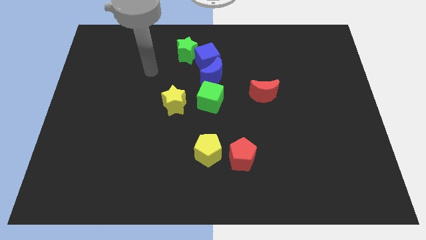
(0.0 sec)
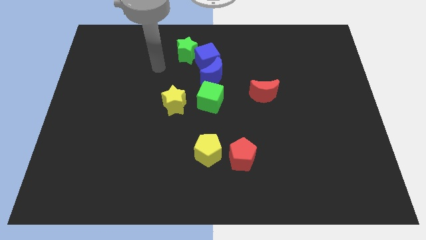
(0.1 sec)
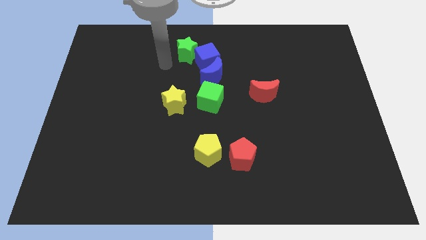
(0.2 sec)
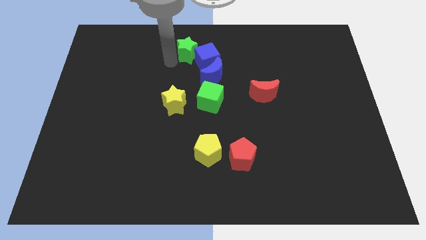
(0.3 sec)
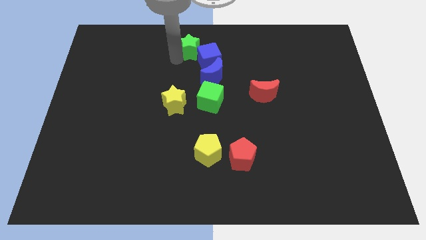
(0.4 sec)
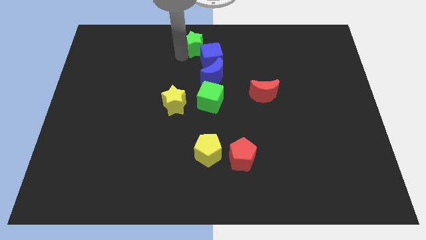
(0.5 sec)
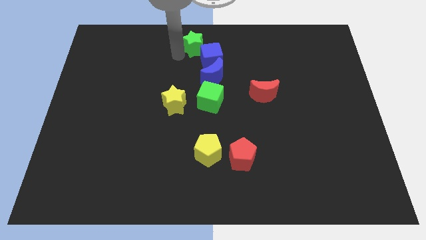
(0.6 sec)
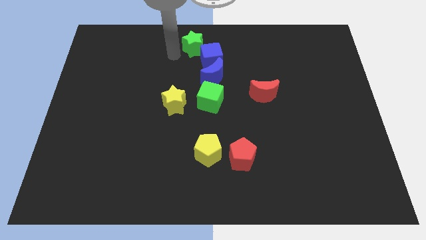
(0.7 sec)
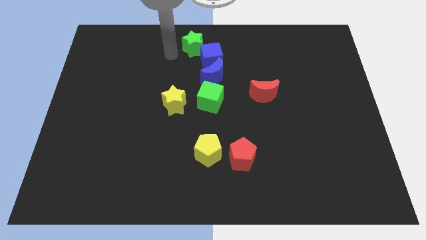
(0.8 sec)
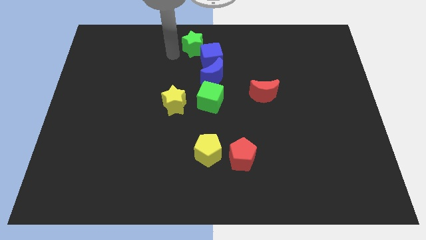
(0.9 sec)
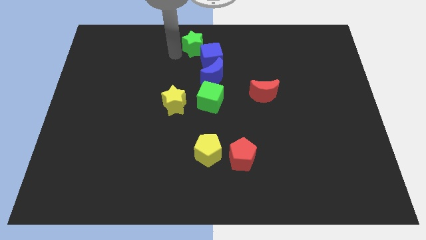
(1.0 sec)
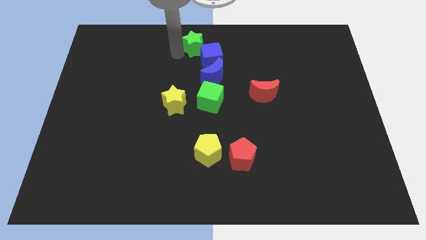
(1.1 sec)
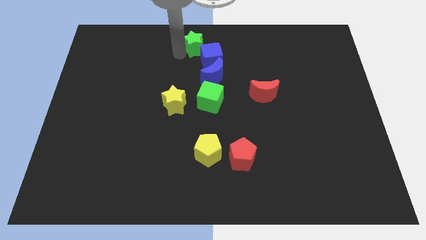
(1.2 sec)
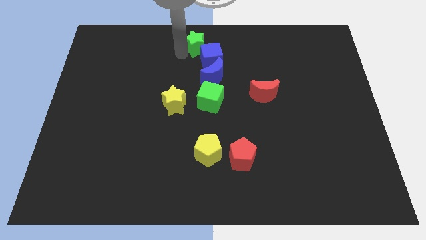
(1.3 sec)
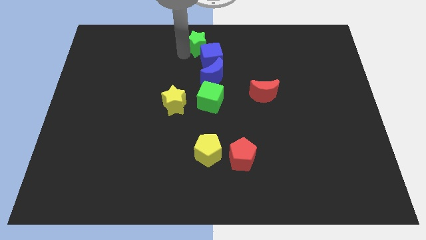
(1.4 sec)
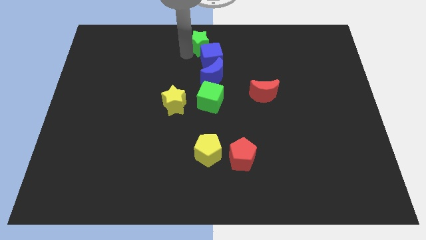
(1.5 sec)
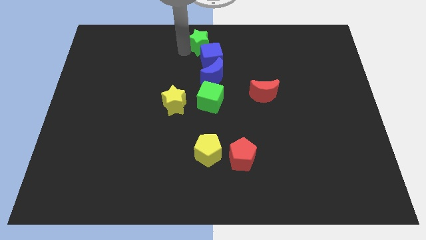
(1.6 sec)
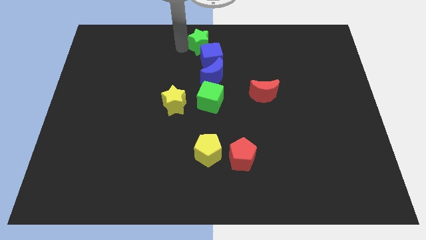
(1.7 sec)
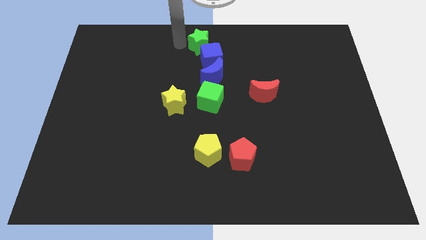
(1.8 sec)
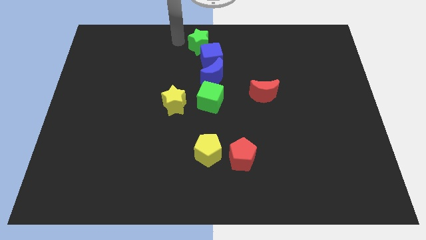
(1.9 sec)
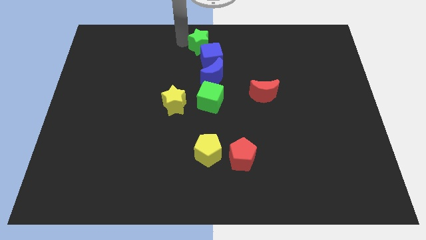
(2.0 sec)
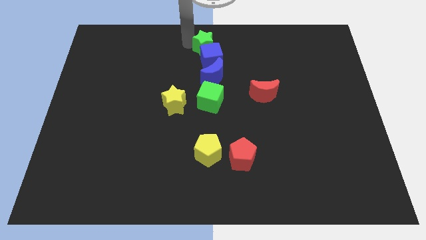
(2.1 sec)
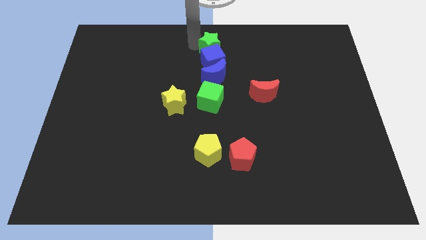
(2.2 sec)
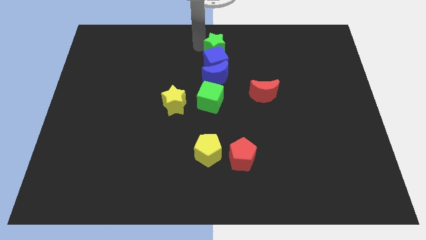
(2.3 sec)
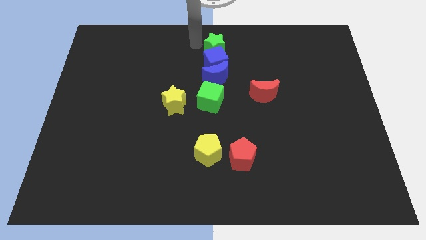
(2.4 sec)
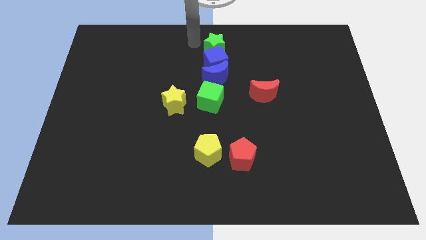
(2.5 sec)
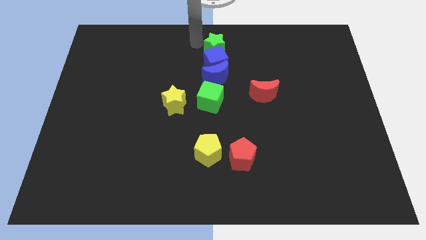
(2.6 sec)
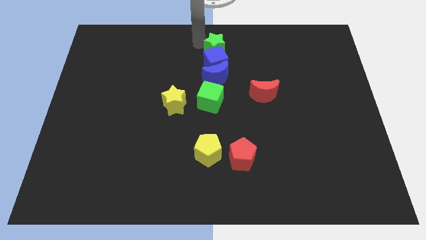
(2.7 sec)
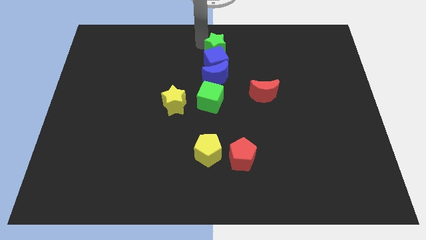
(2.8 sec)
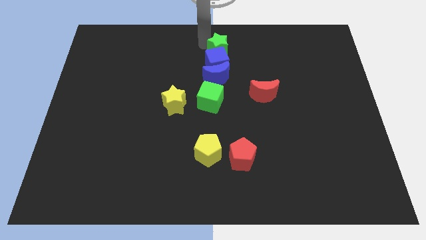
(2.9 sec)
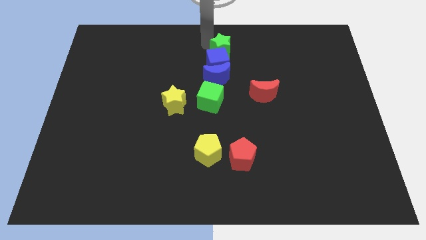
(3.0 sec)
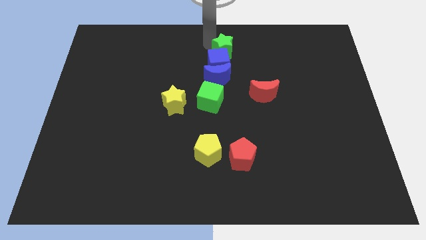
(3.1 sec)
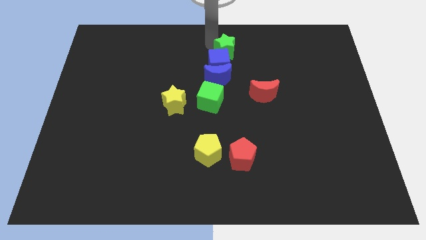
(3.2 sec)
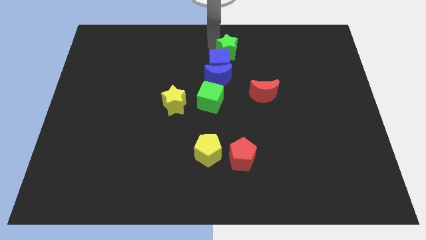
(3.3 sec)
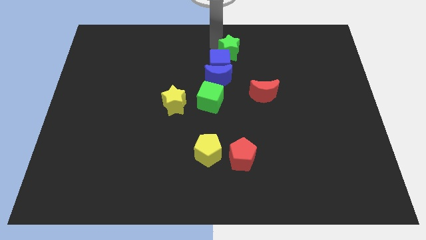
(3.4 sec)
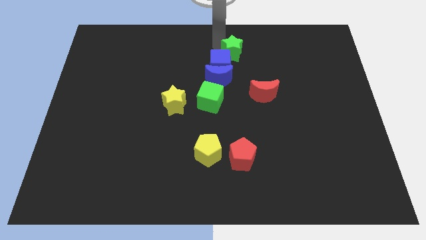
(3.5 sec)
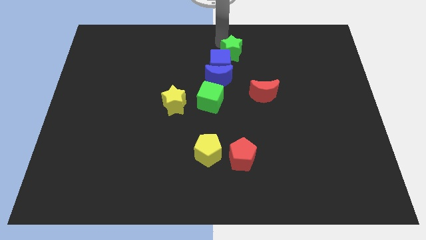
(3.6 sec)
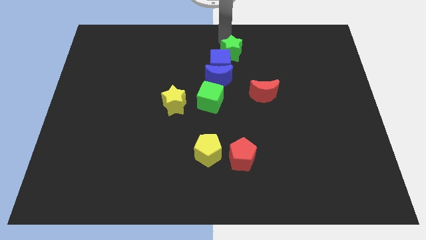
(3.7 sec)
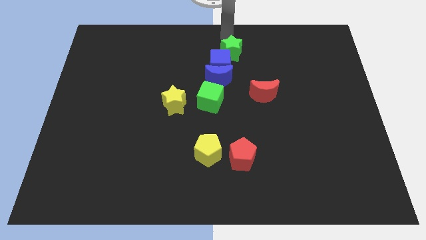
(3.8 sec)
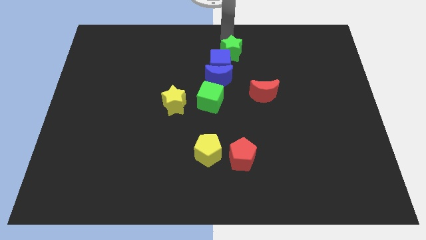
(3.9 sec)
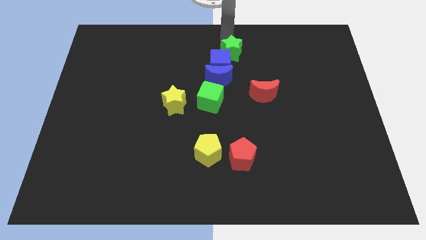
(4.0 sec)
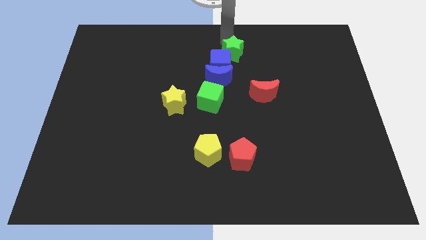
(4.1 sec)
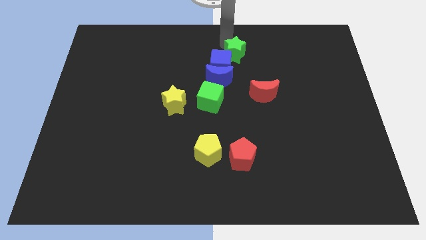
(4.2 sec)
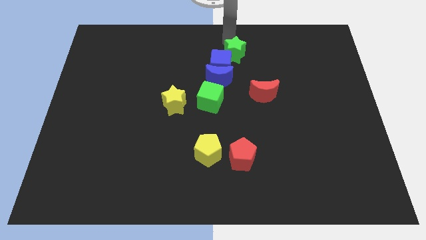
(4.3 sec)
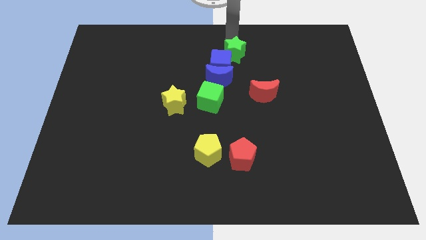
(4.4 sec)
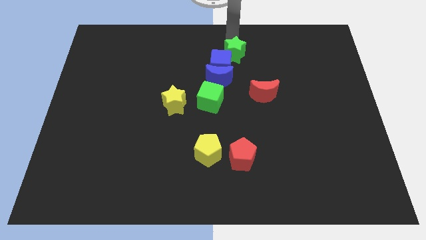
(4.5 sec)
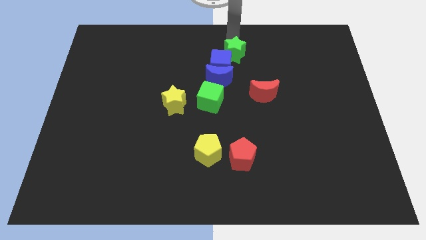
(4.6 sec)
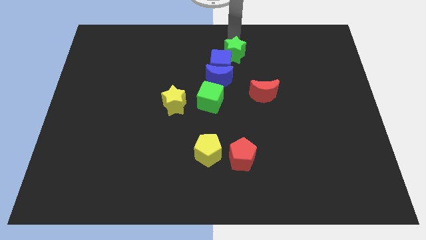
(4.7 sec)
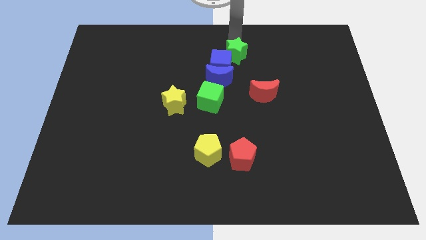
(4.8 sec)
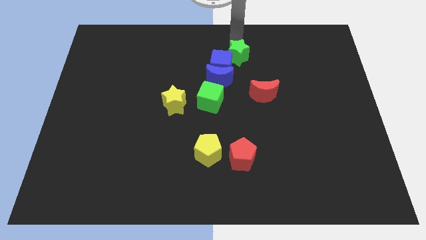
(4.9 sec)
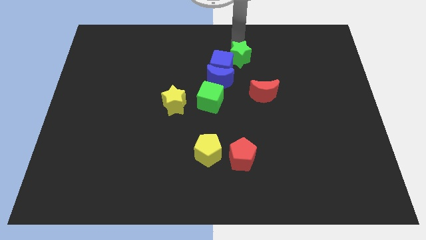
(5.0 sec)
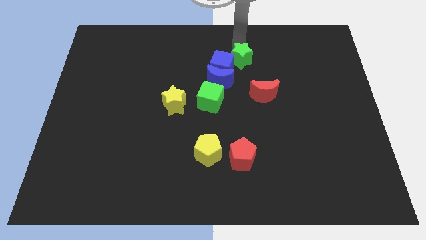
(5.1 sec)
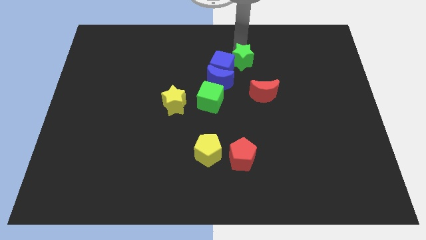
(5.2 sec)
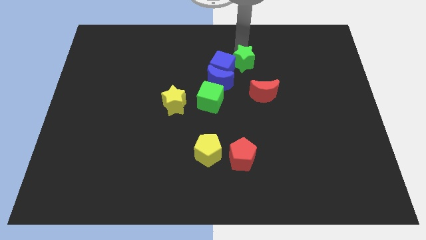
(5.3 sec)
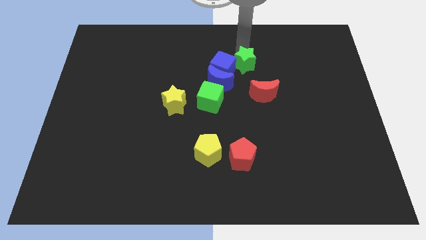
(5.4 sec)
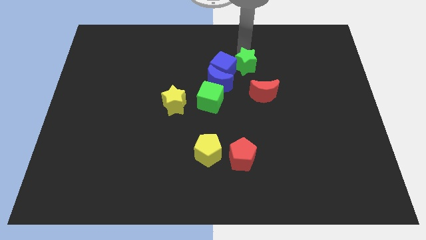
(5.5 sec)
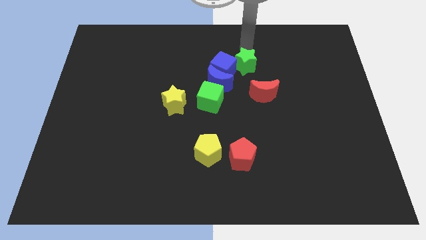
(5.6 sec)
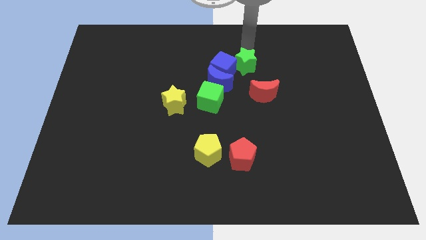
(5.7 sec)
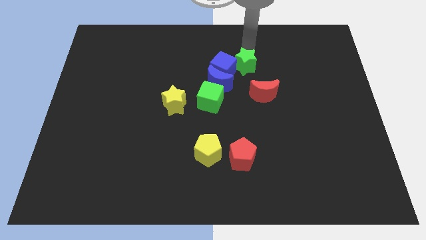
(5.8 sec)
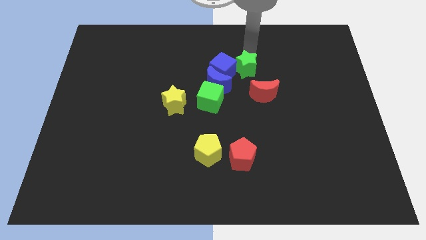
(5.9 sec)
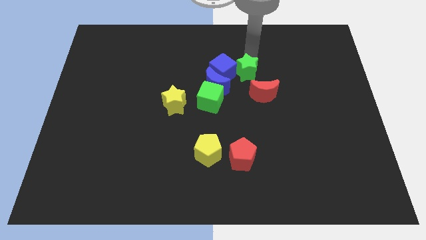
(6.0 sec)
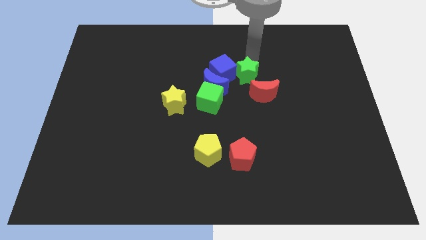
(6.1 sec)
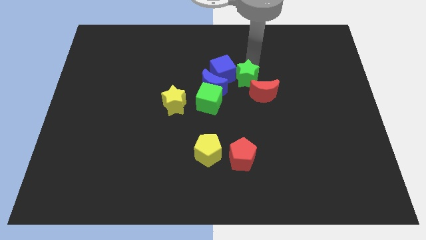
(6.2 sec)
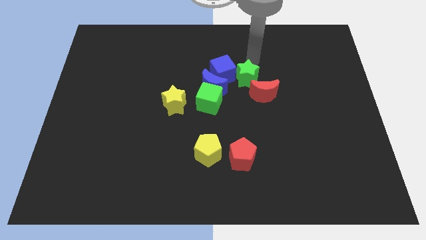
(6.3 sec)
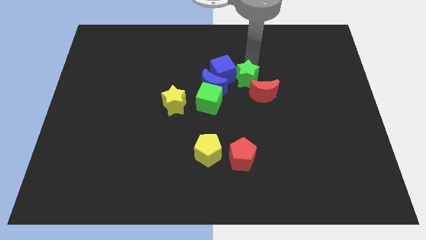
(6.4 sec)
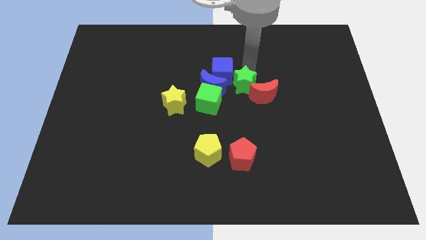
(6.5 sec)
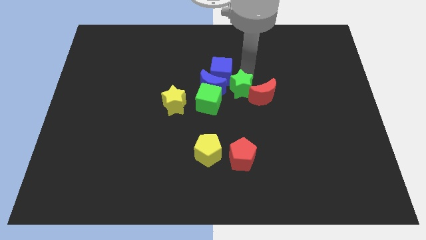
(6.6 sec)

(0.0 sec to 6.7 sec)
put the green star diagonally down and to the right of the blue moon
